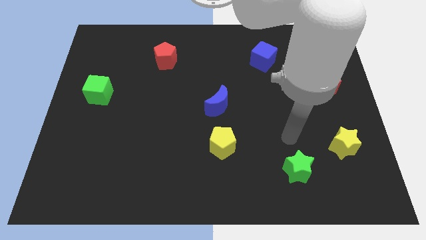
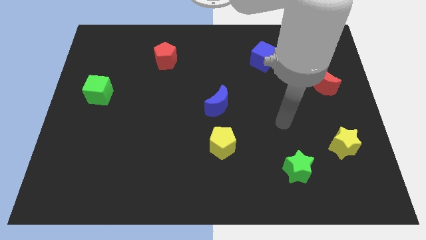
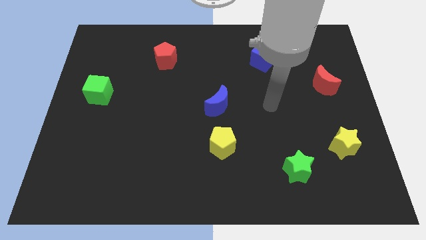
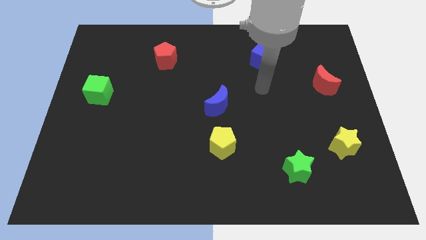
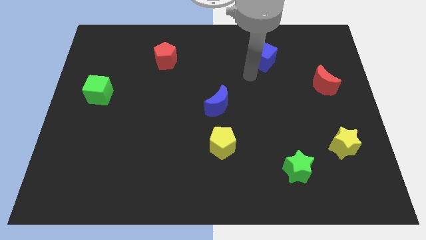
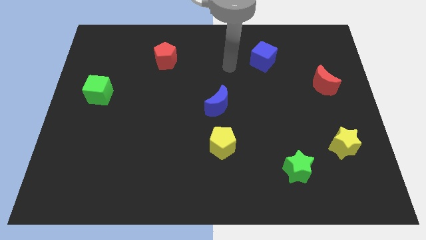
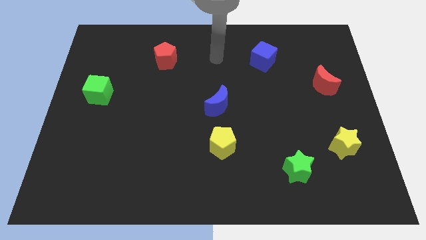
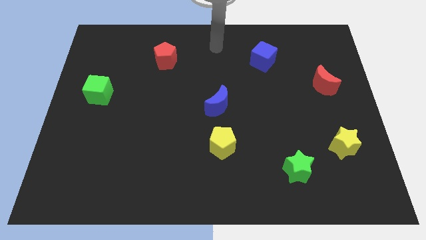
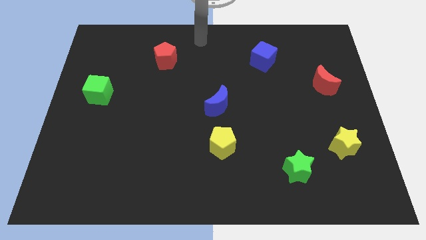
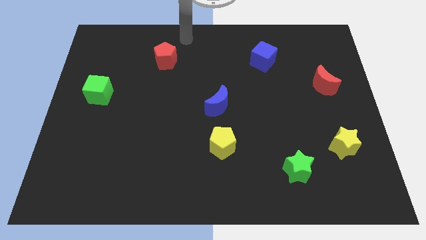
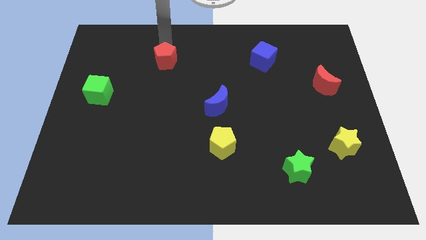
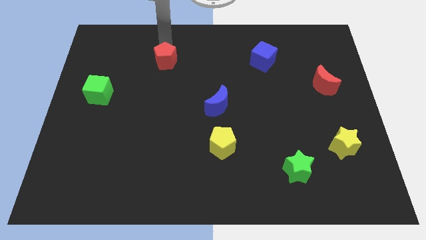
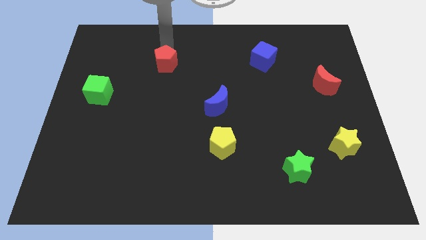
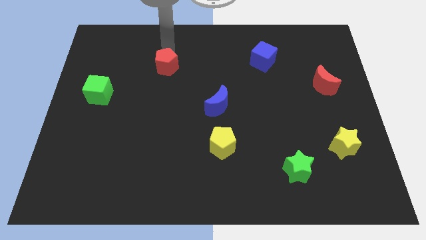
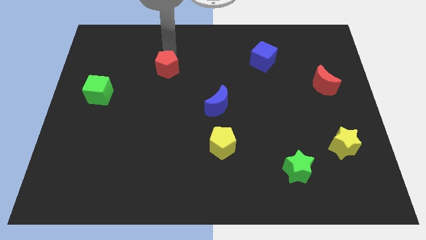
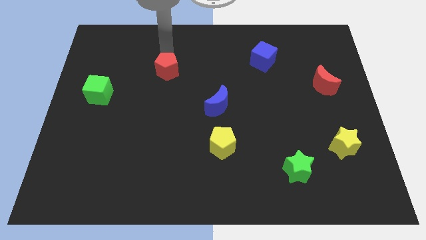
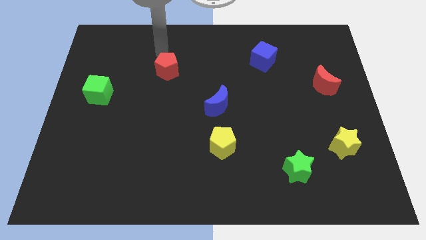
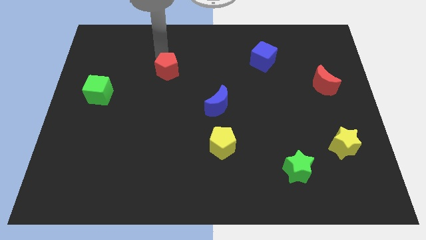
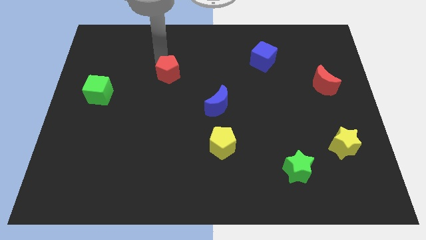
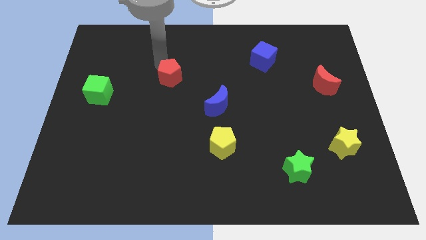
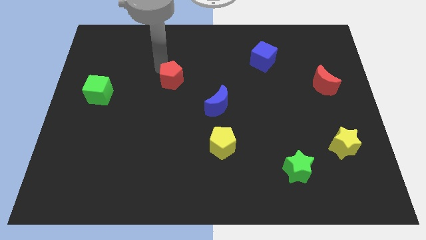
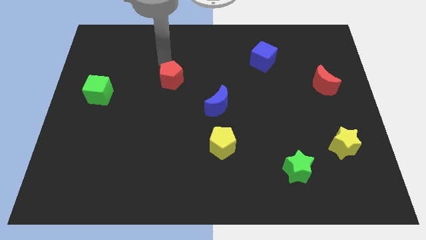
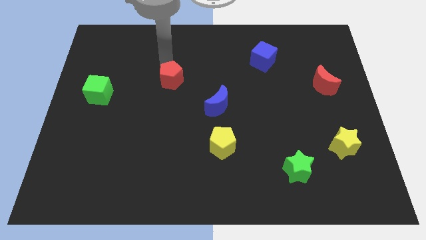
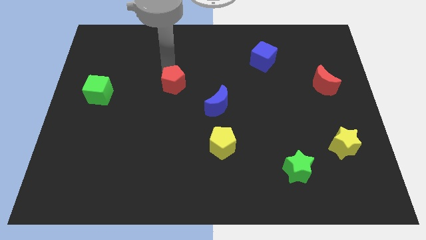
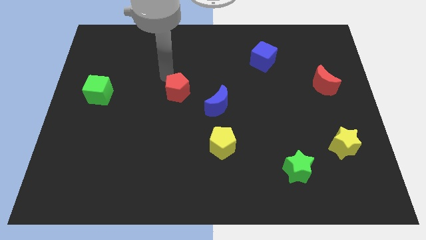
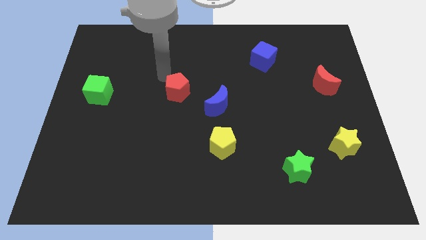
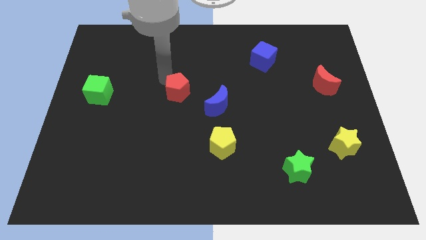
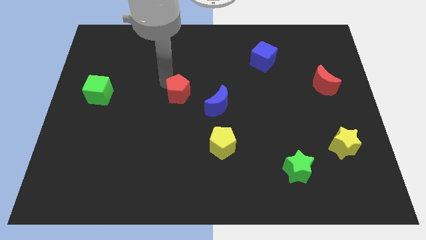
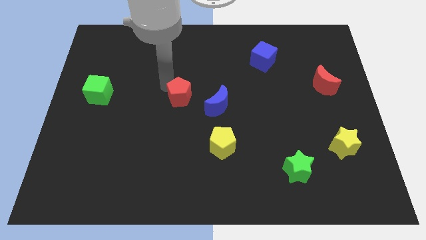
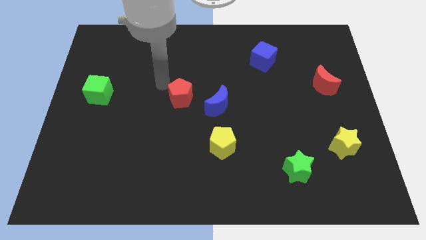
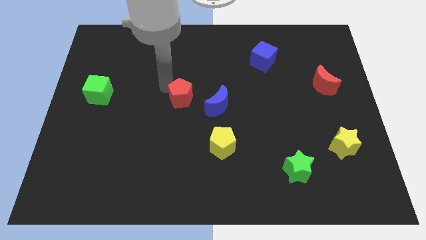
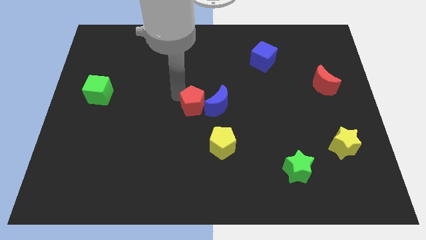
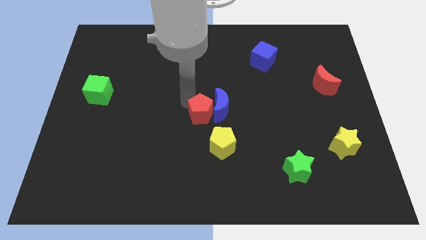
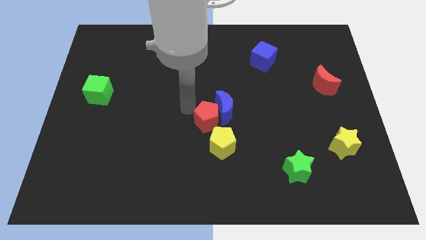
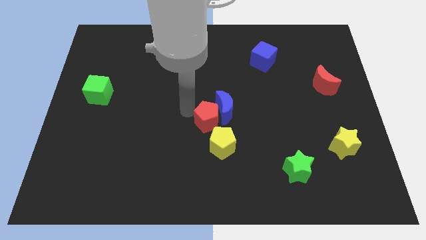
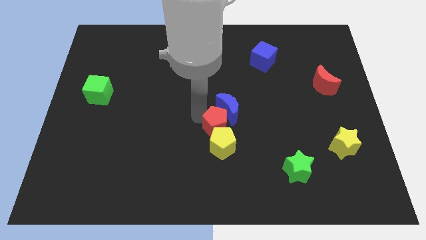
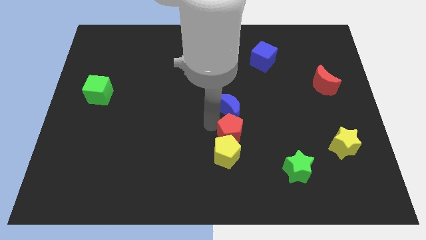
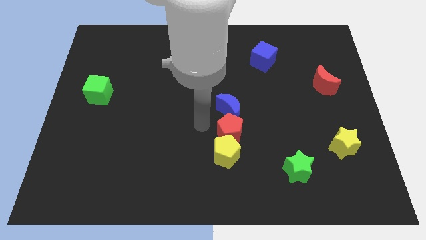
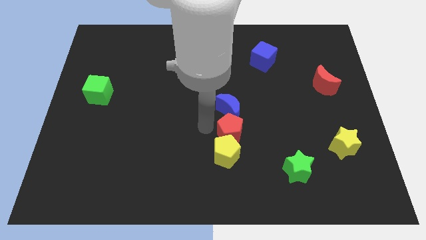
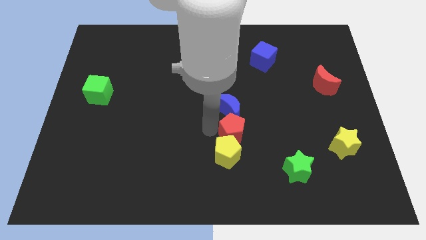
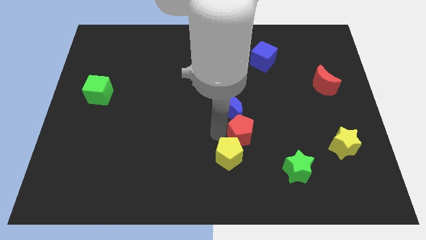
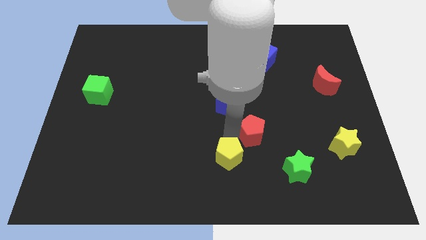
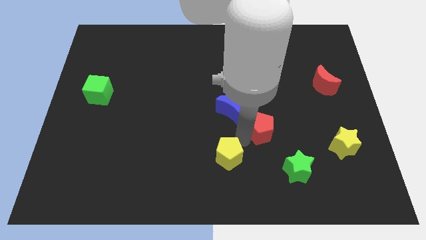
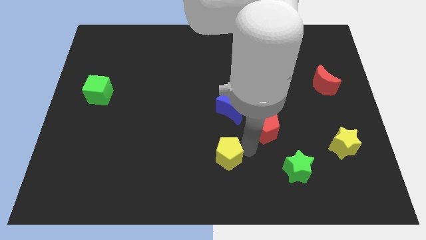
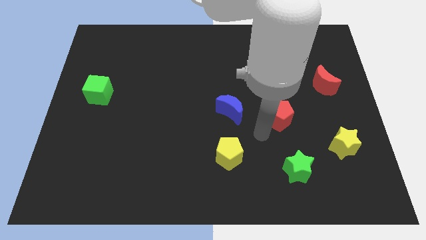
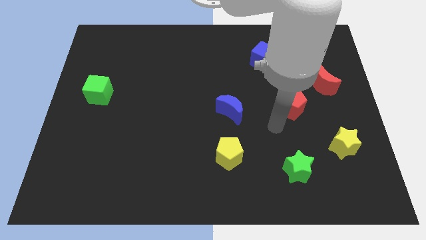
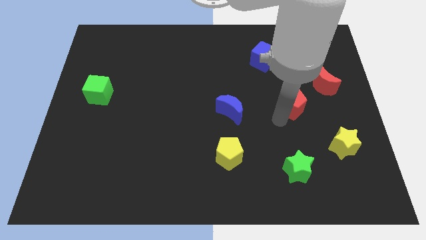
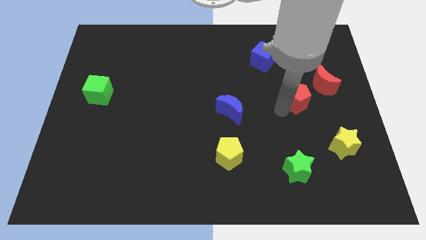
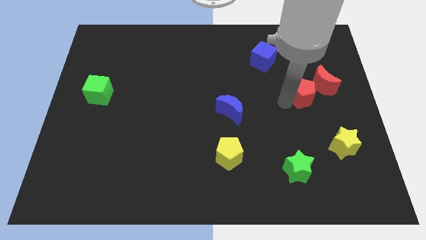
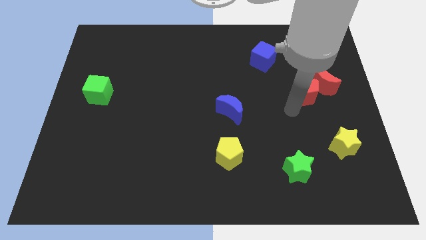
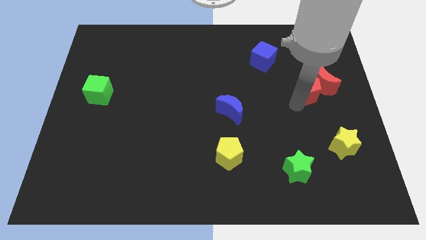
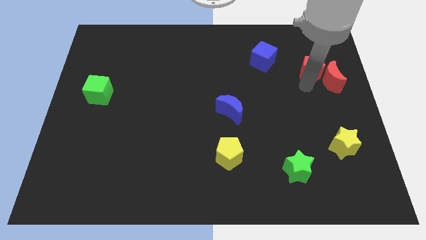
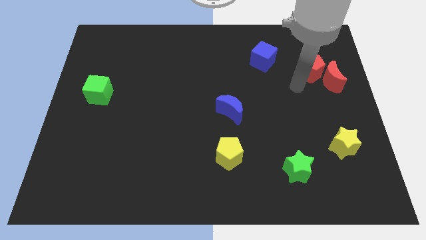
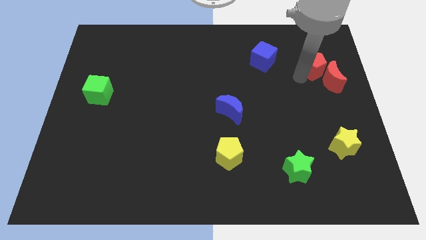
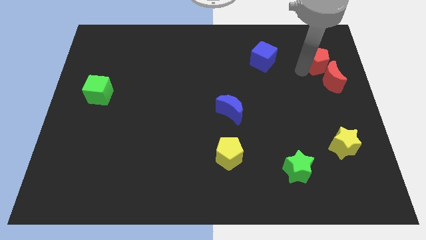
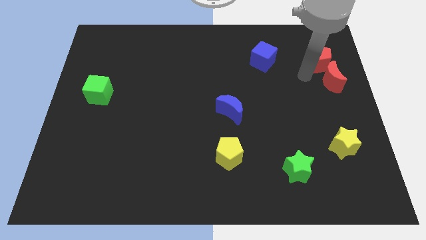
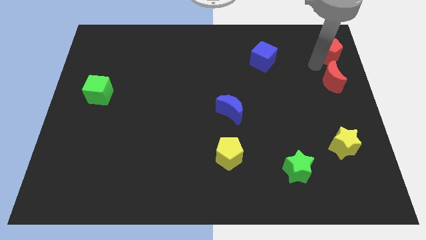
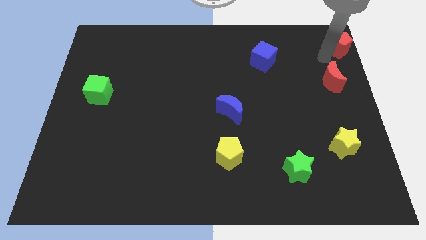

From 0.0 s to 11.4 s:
move the red pentagon to the top right corner

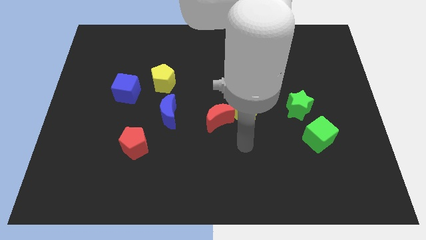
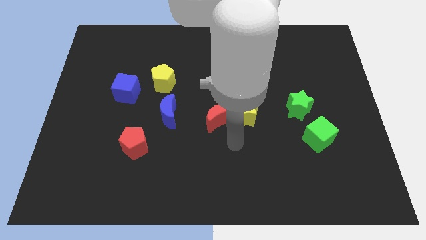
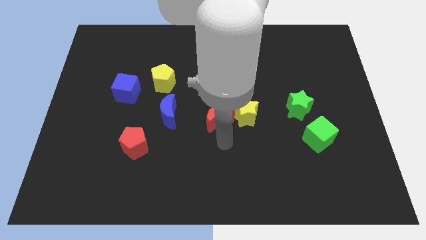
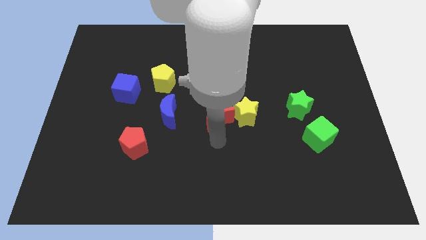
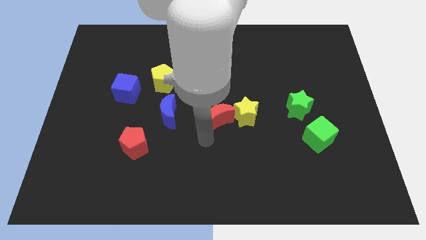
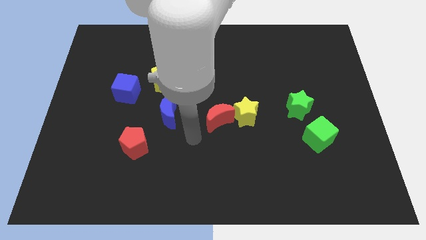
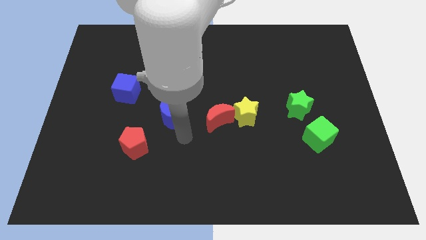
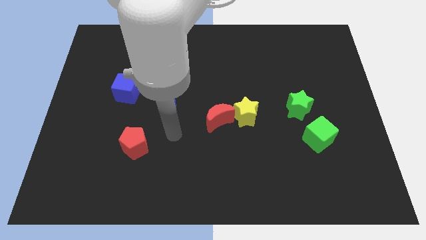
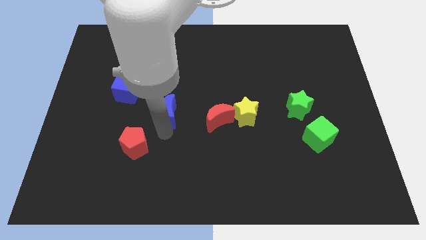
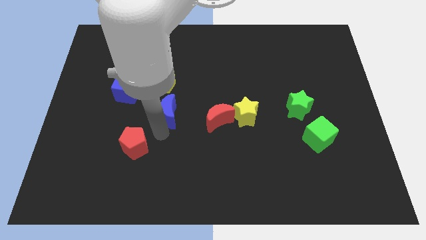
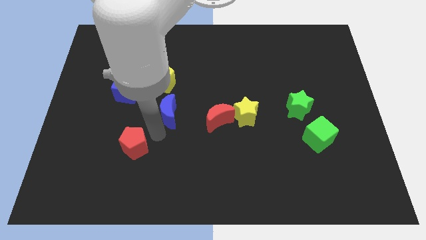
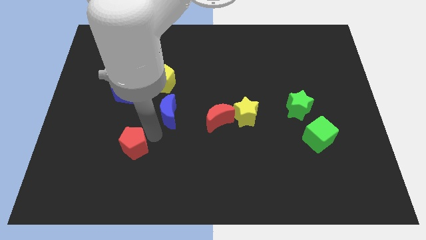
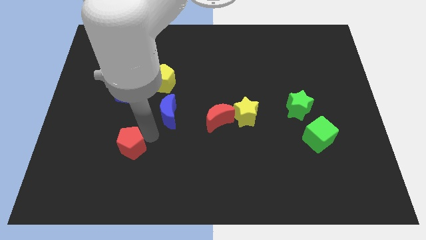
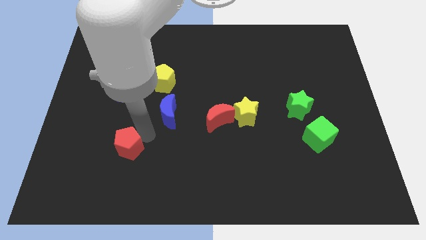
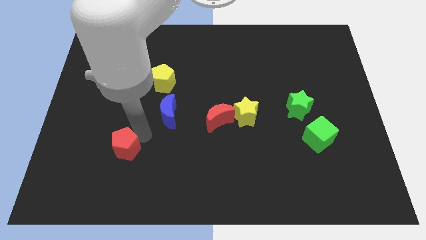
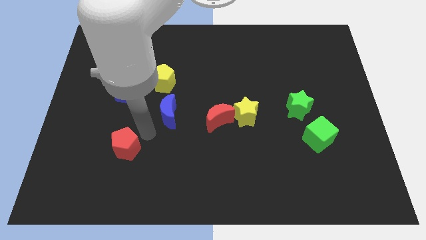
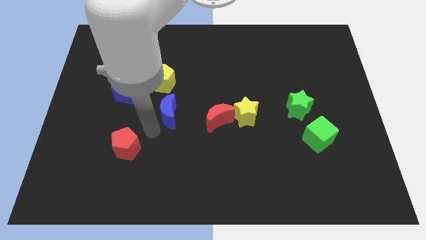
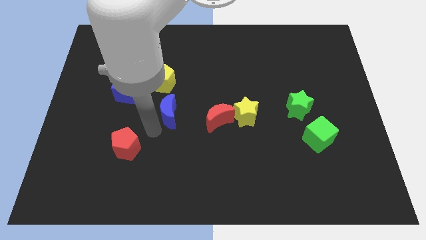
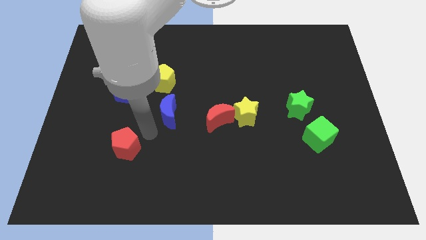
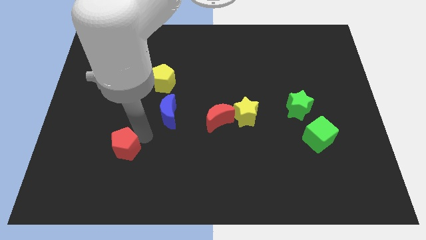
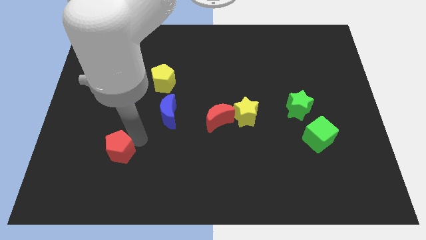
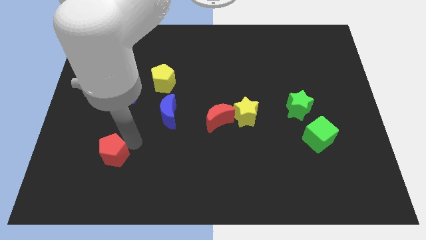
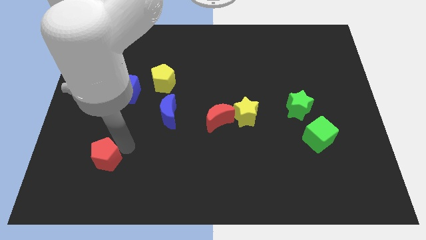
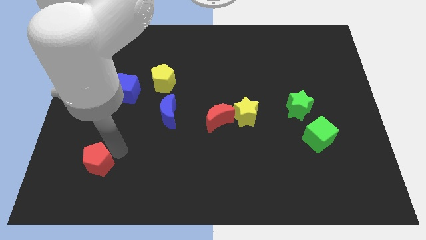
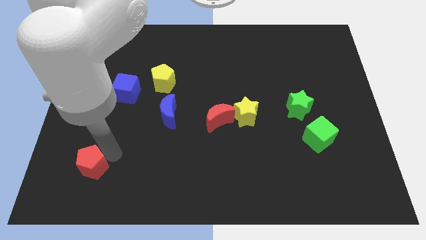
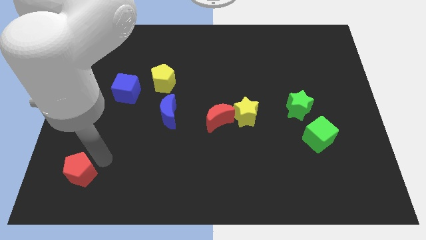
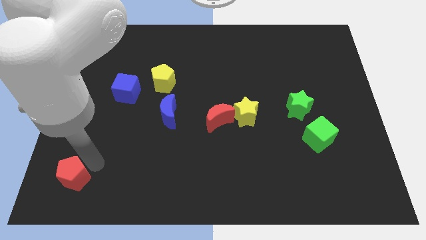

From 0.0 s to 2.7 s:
move the red pentagon to the bottom left
